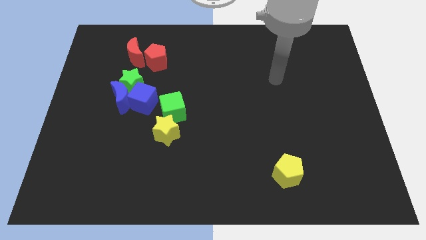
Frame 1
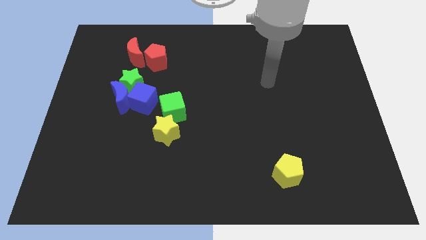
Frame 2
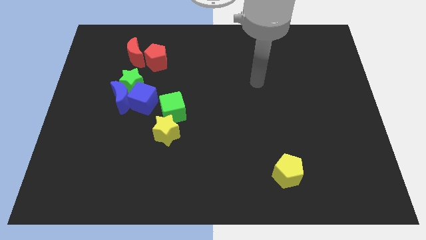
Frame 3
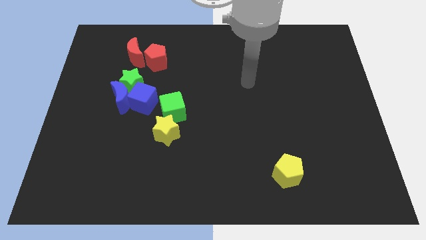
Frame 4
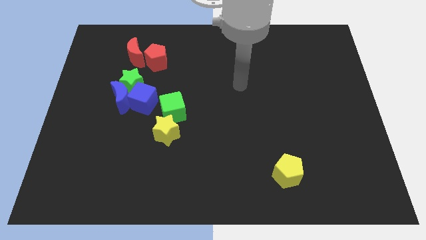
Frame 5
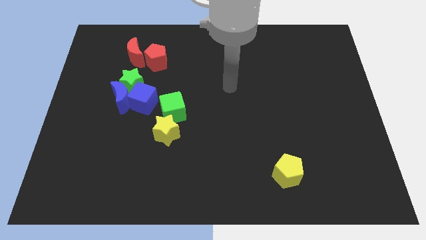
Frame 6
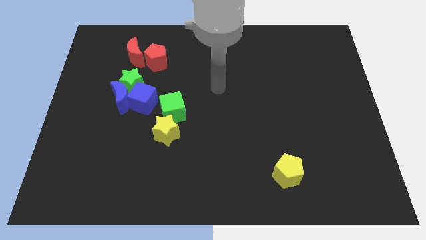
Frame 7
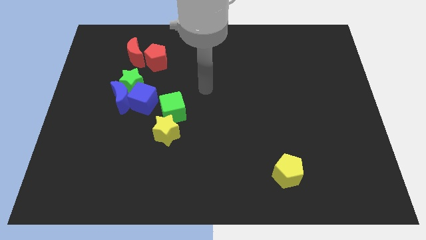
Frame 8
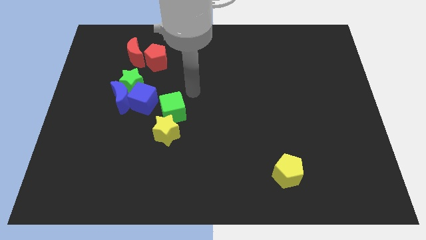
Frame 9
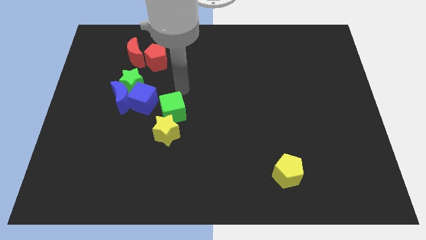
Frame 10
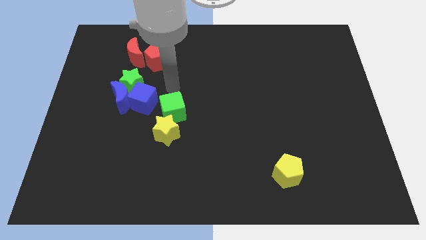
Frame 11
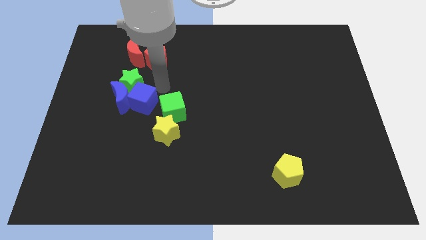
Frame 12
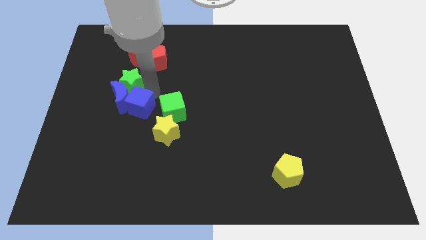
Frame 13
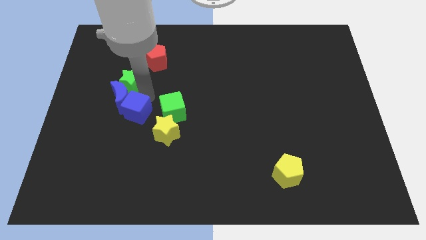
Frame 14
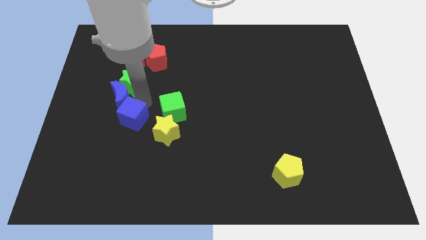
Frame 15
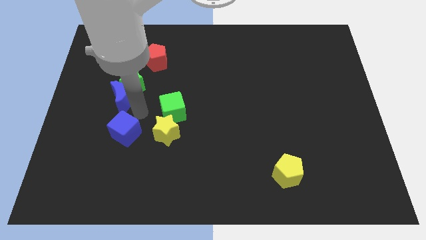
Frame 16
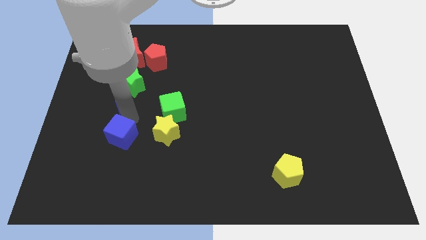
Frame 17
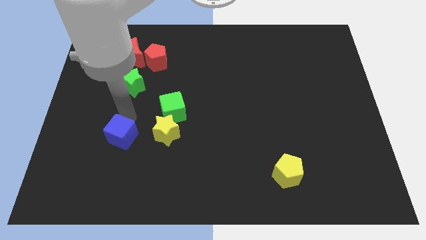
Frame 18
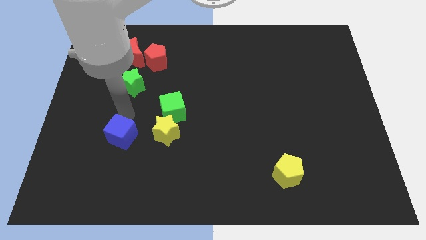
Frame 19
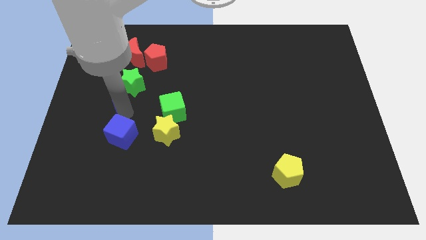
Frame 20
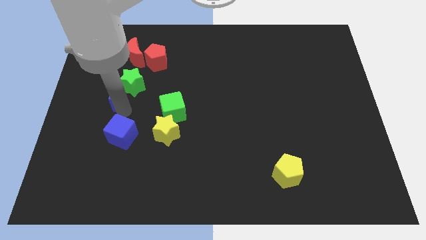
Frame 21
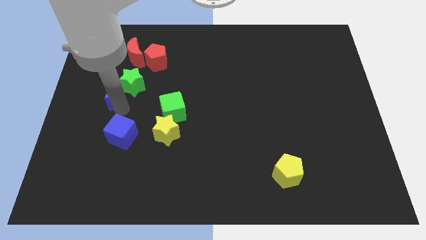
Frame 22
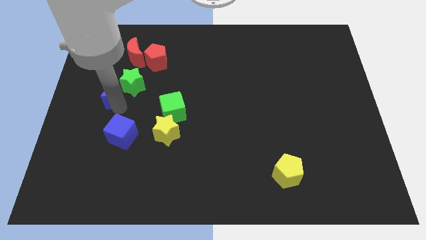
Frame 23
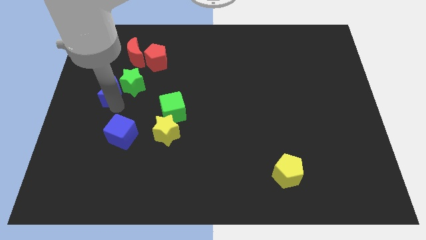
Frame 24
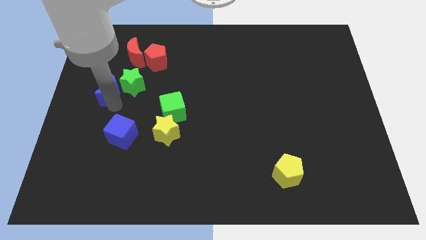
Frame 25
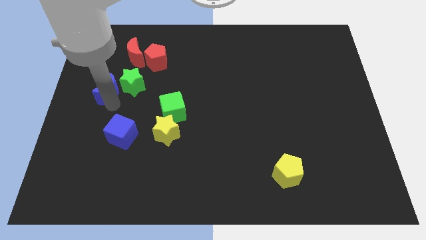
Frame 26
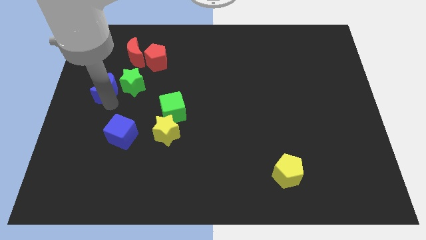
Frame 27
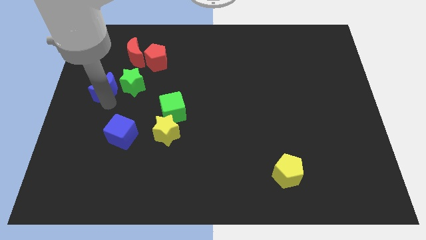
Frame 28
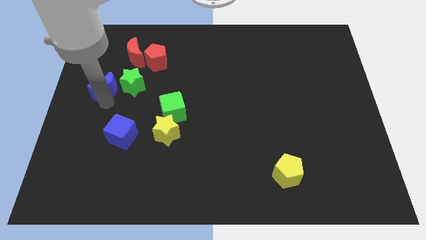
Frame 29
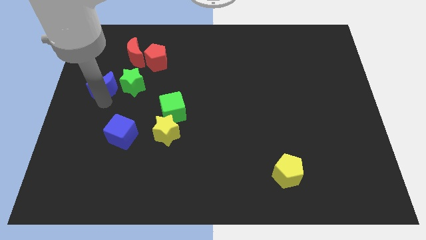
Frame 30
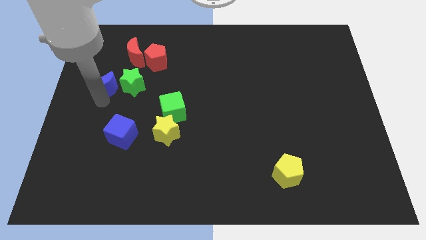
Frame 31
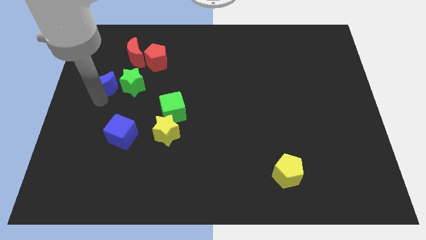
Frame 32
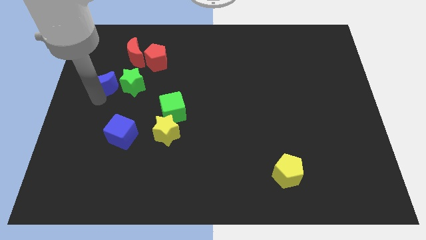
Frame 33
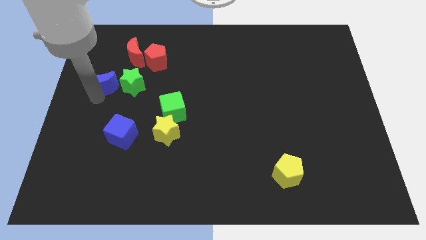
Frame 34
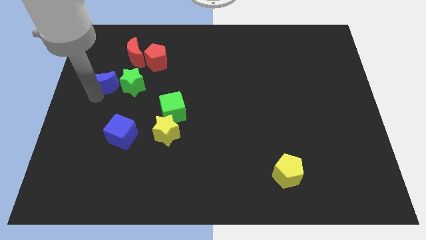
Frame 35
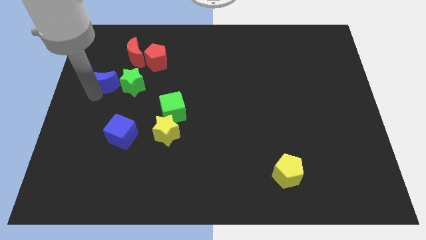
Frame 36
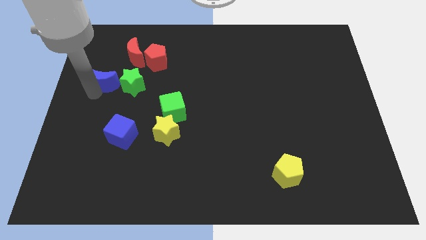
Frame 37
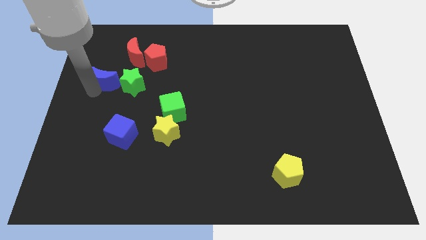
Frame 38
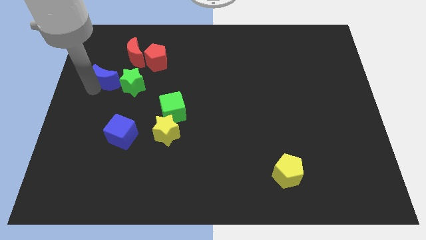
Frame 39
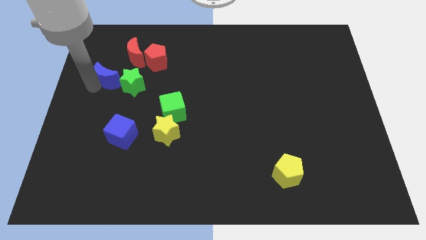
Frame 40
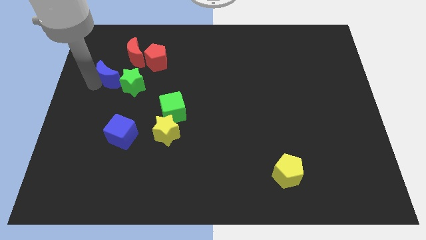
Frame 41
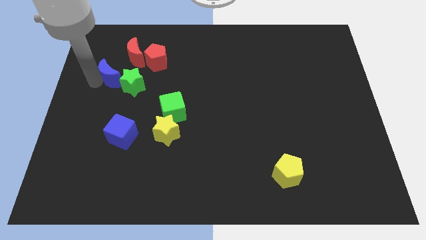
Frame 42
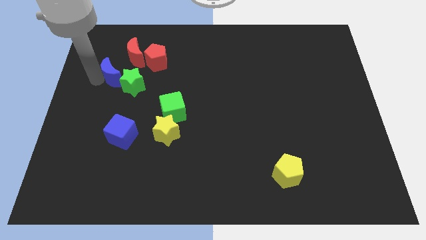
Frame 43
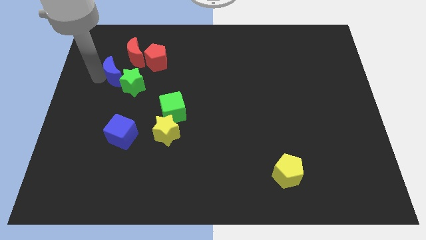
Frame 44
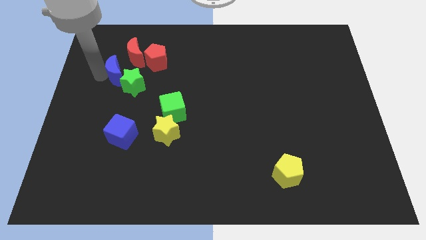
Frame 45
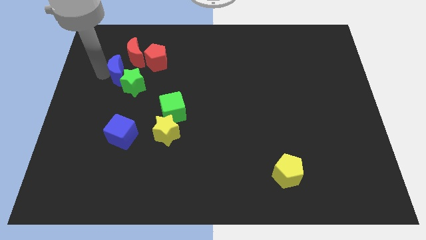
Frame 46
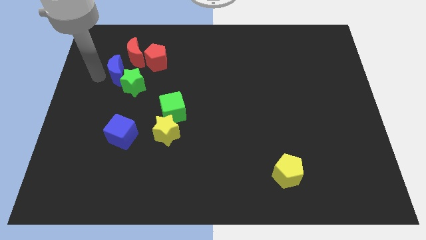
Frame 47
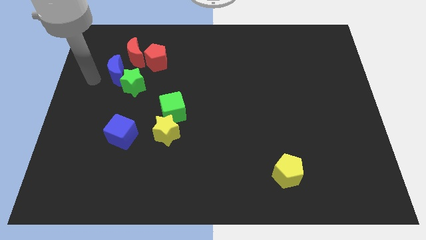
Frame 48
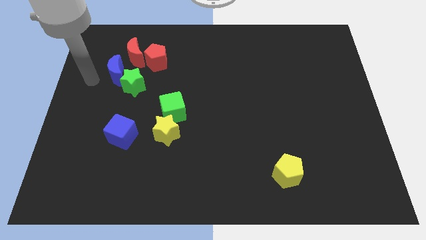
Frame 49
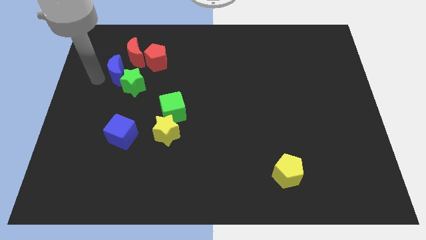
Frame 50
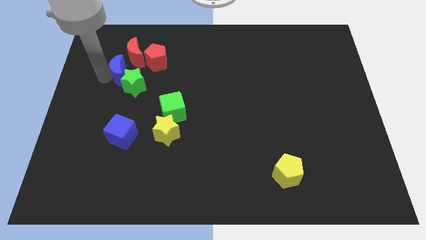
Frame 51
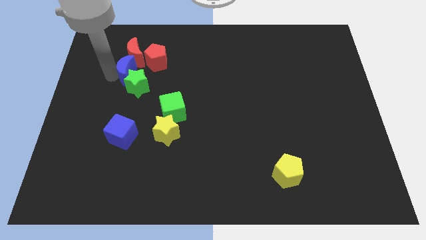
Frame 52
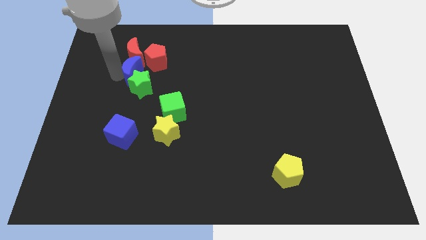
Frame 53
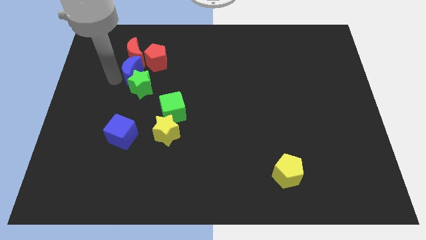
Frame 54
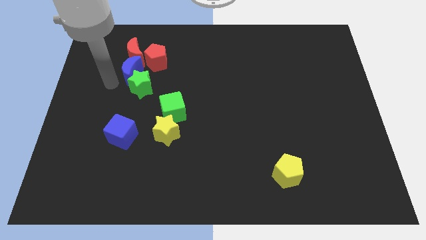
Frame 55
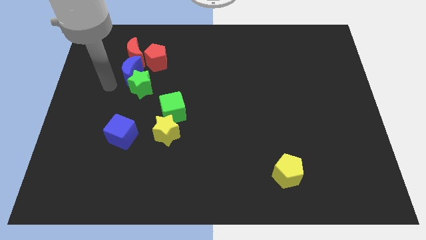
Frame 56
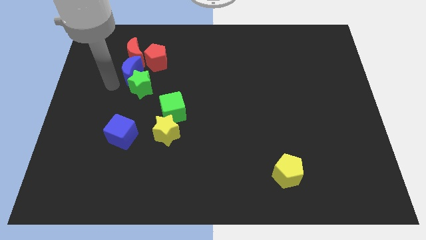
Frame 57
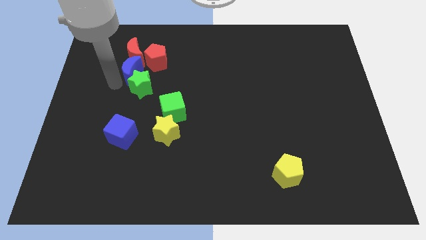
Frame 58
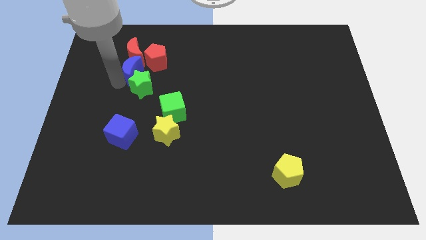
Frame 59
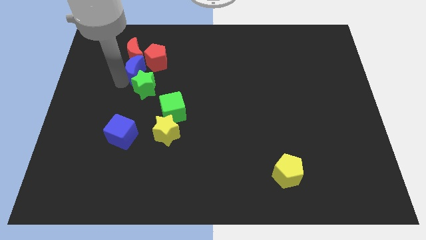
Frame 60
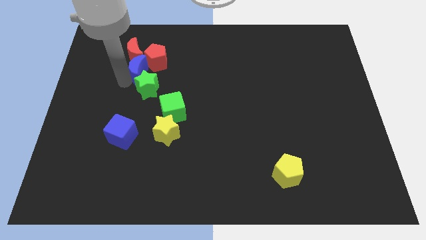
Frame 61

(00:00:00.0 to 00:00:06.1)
move the blue moon towards the red pentagon

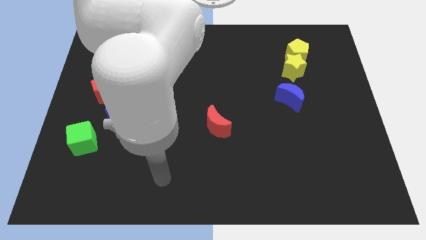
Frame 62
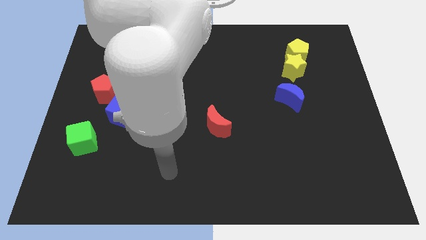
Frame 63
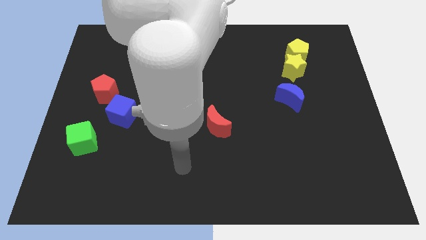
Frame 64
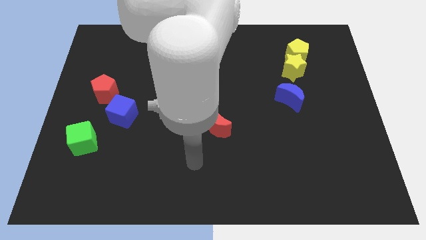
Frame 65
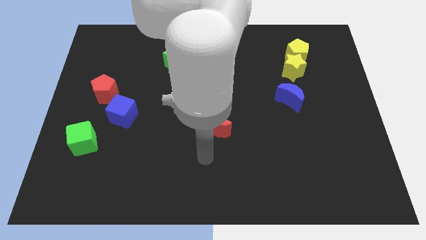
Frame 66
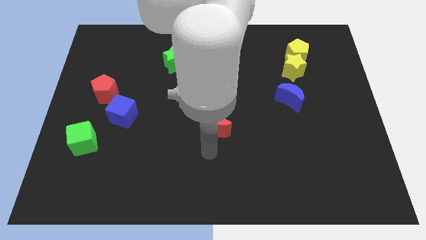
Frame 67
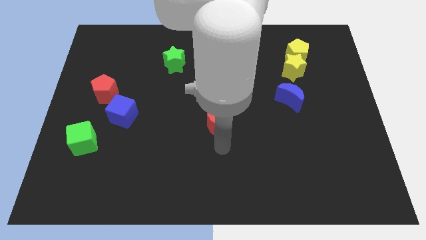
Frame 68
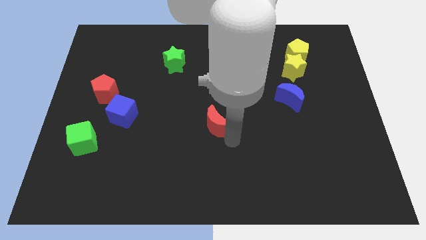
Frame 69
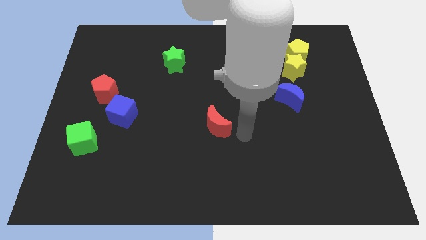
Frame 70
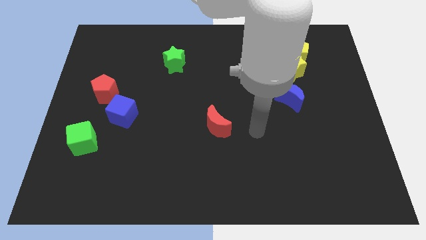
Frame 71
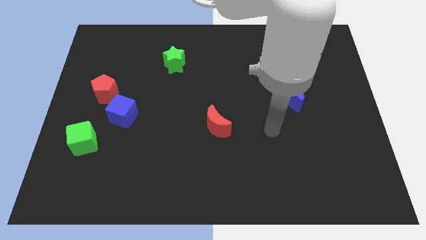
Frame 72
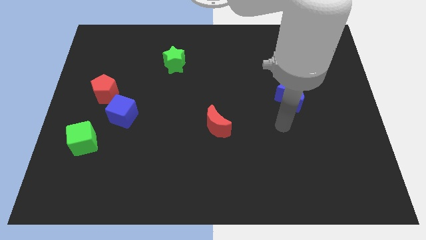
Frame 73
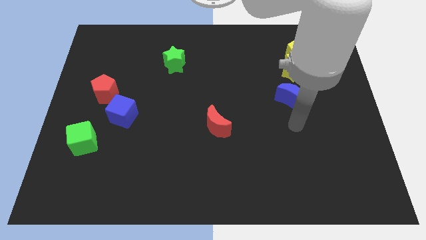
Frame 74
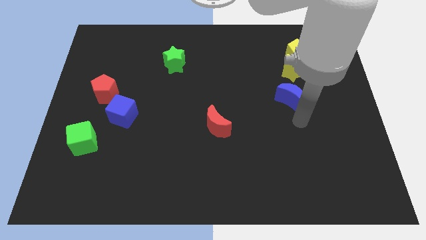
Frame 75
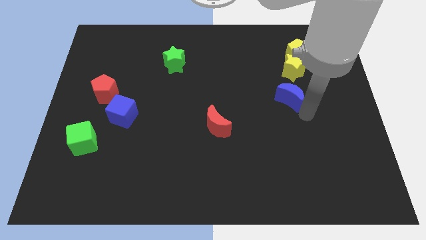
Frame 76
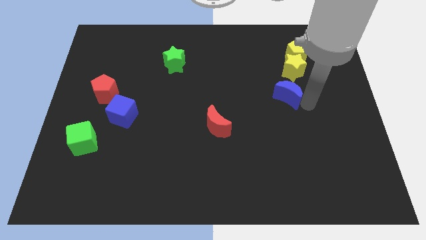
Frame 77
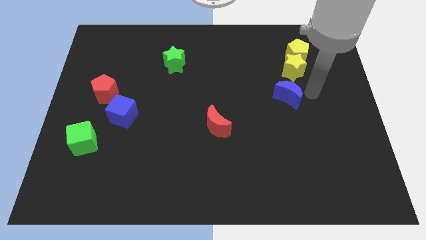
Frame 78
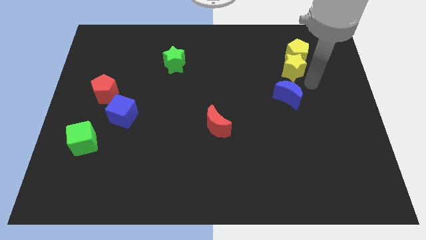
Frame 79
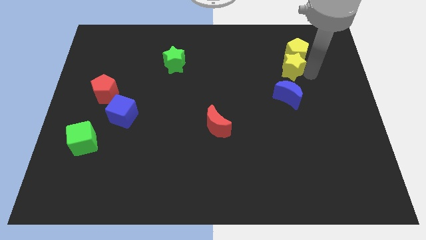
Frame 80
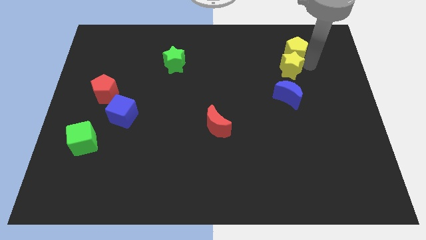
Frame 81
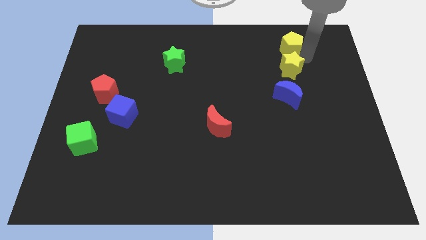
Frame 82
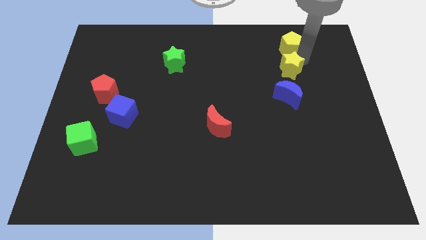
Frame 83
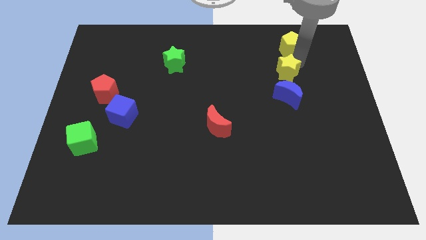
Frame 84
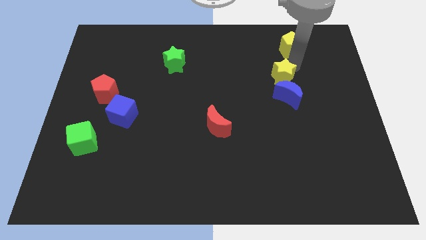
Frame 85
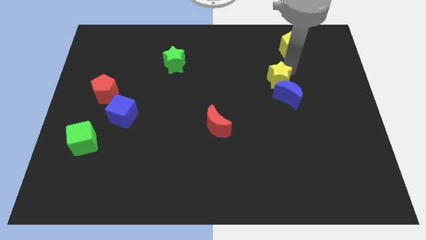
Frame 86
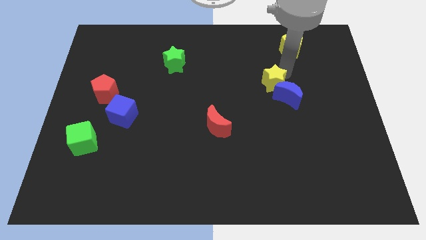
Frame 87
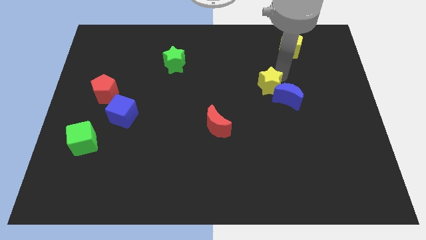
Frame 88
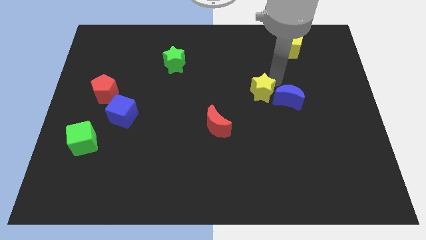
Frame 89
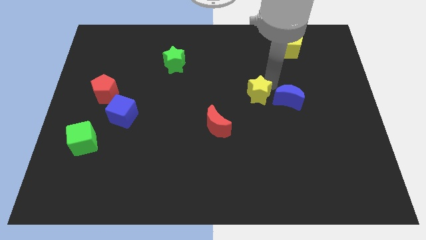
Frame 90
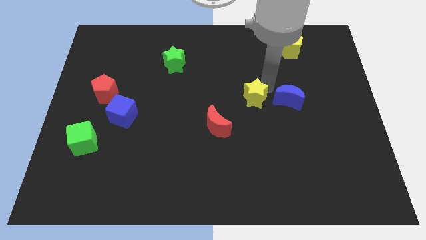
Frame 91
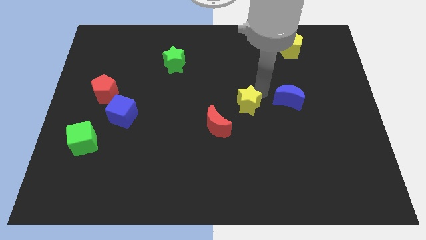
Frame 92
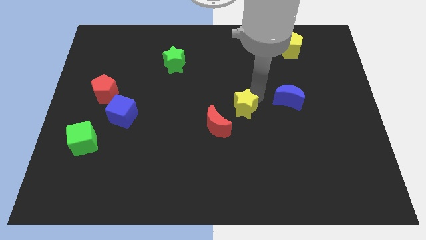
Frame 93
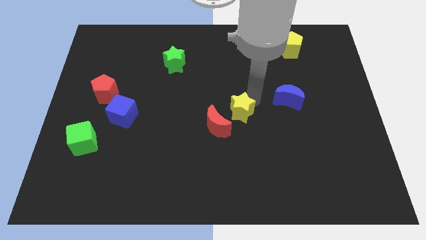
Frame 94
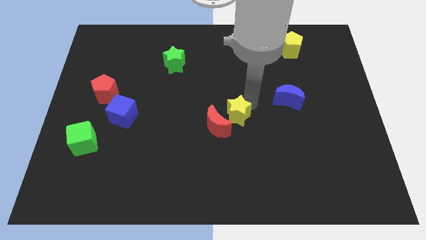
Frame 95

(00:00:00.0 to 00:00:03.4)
push the yellow star next to the red moon
